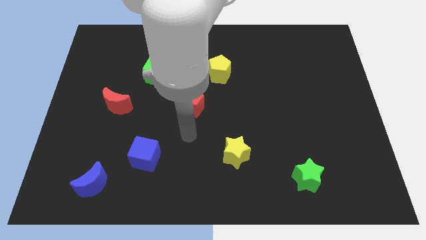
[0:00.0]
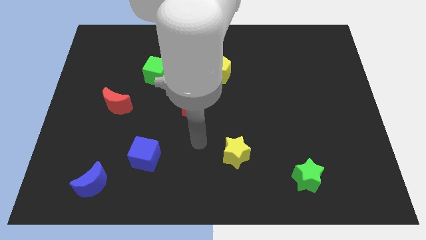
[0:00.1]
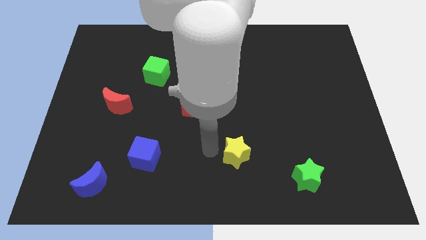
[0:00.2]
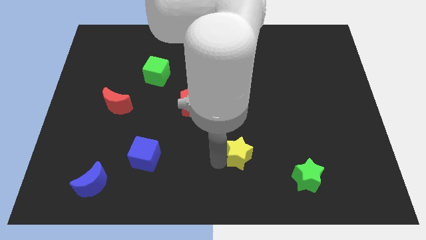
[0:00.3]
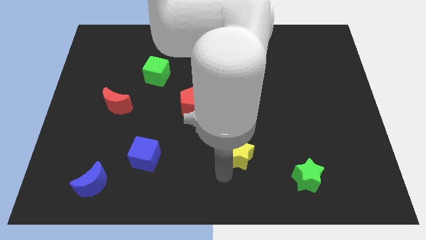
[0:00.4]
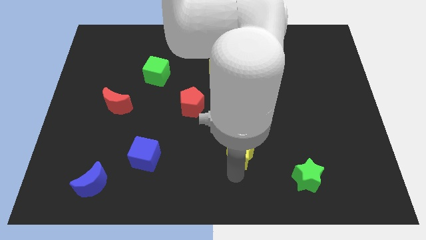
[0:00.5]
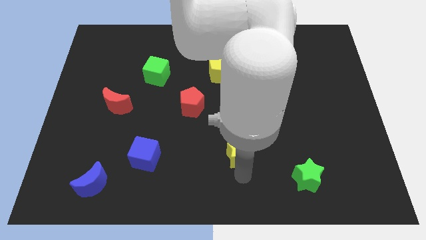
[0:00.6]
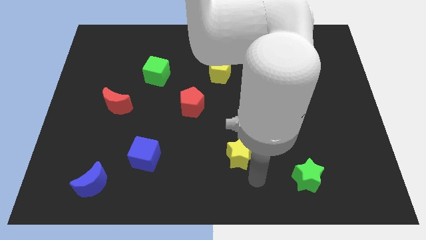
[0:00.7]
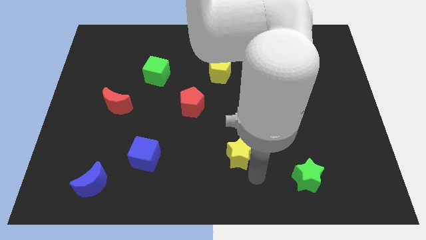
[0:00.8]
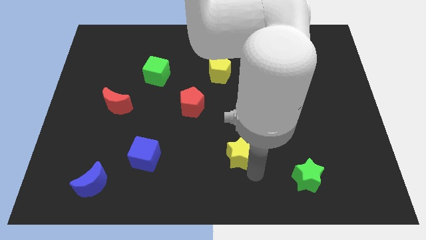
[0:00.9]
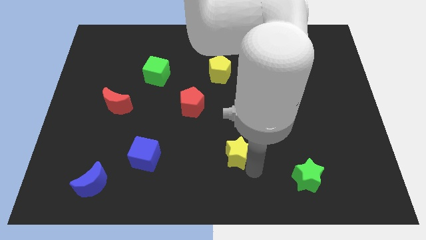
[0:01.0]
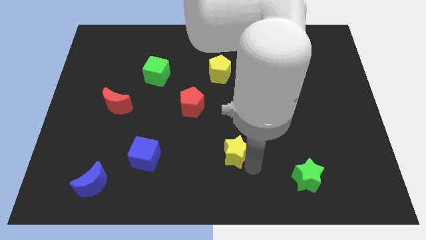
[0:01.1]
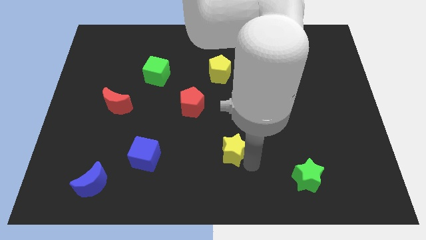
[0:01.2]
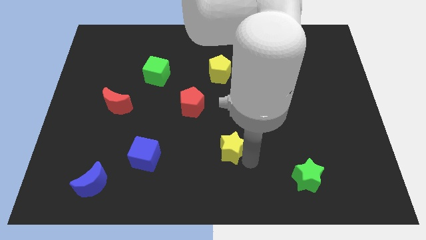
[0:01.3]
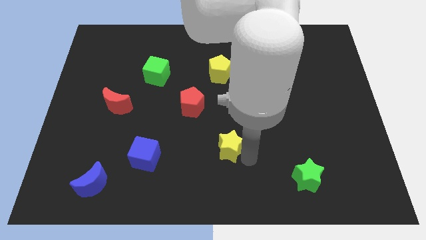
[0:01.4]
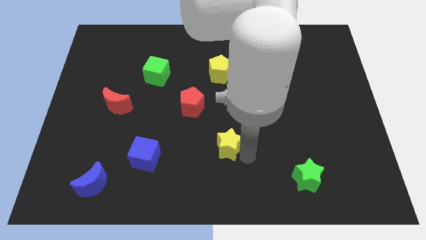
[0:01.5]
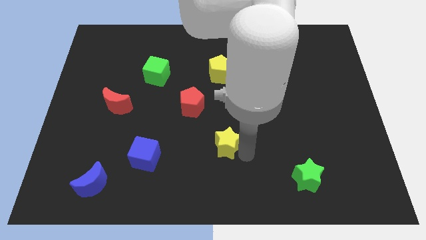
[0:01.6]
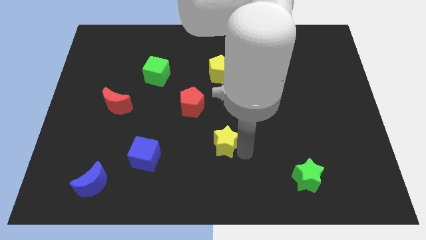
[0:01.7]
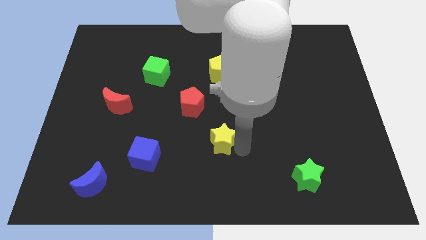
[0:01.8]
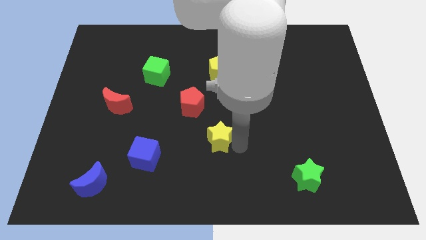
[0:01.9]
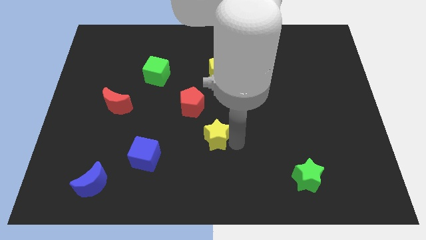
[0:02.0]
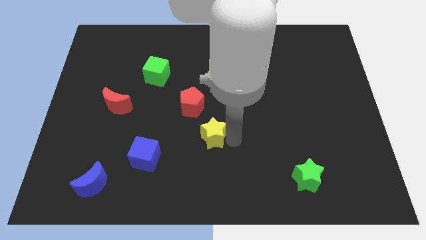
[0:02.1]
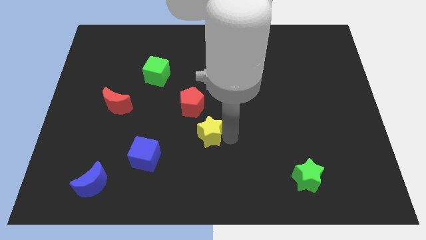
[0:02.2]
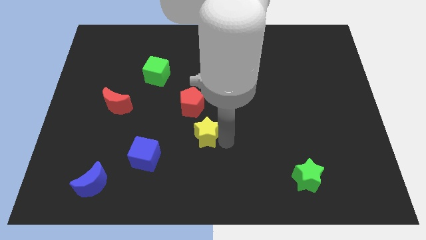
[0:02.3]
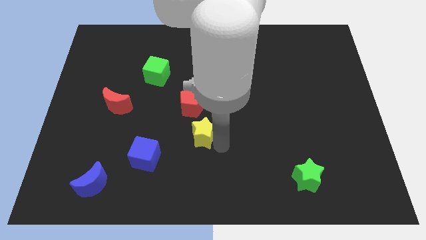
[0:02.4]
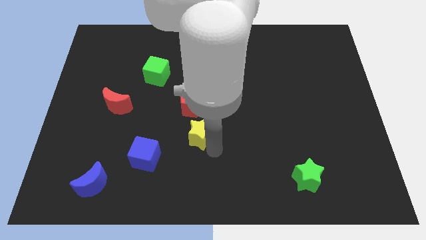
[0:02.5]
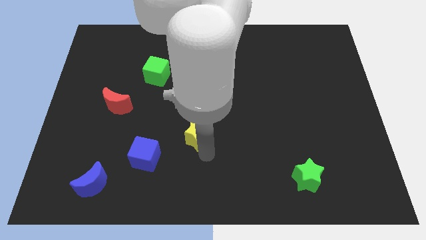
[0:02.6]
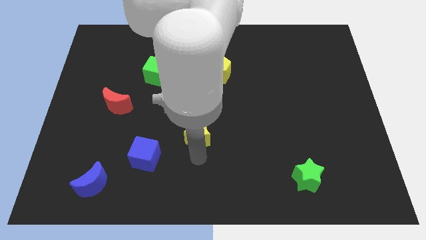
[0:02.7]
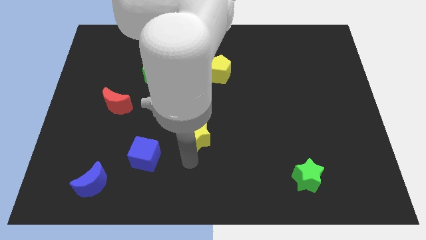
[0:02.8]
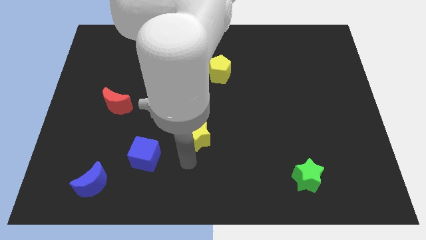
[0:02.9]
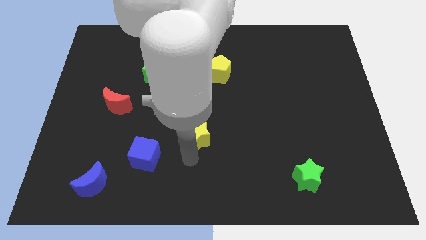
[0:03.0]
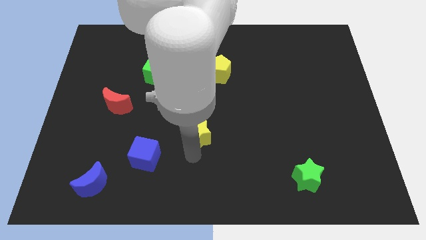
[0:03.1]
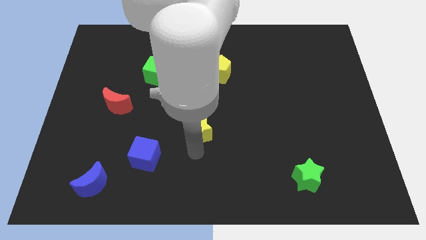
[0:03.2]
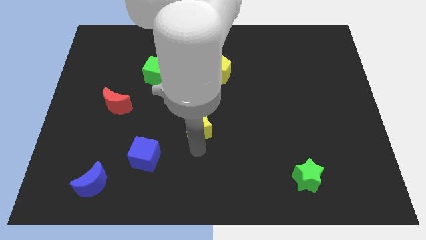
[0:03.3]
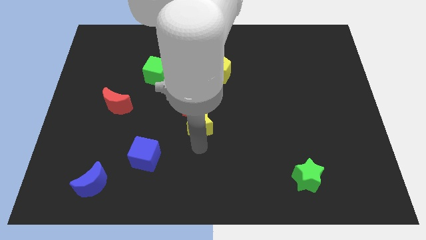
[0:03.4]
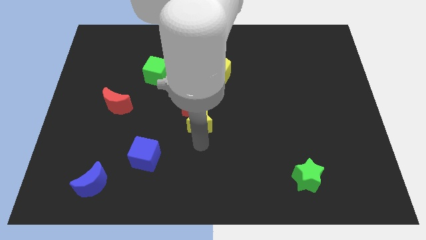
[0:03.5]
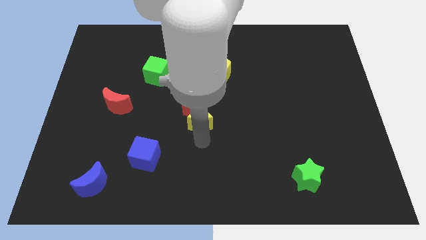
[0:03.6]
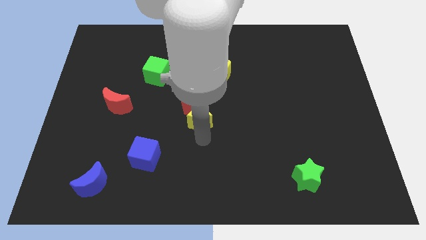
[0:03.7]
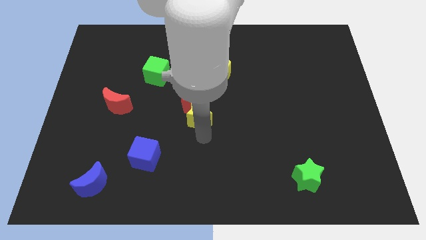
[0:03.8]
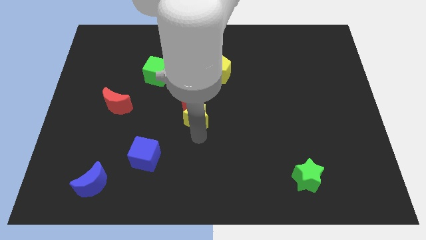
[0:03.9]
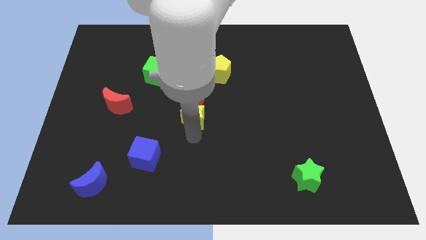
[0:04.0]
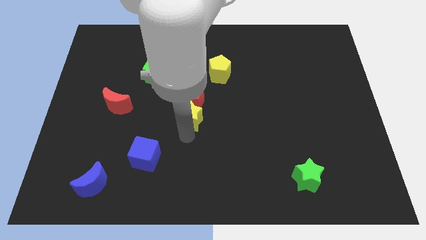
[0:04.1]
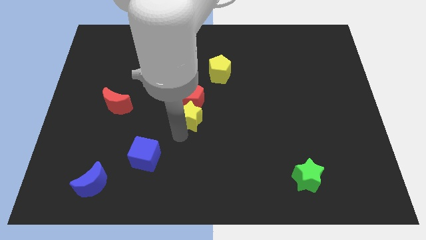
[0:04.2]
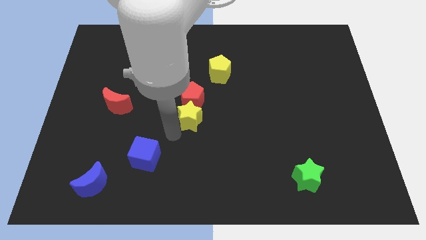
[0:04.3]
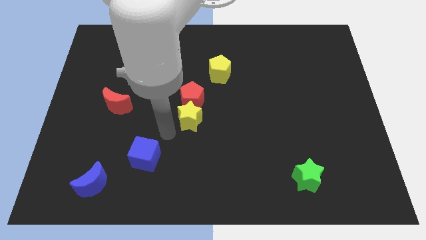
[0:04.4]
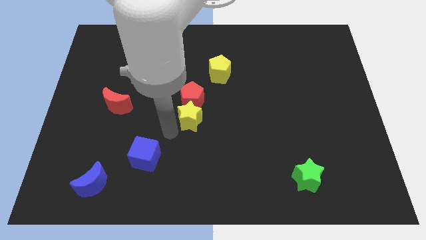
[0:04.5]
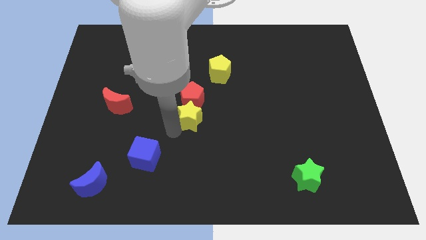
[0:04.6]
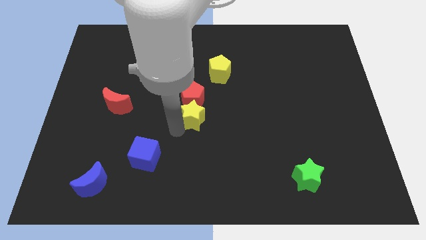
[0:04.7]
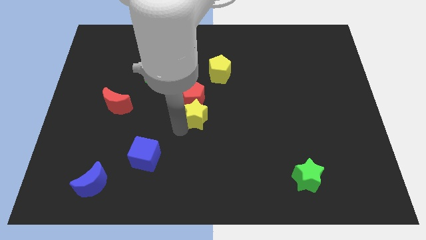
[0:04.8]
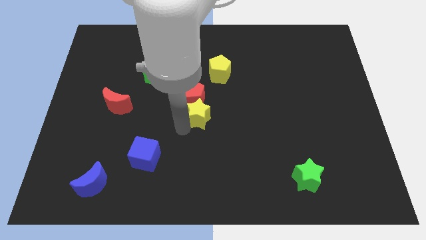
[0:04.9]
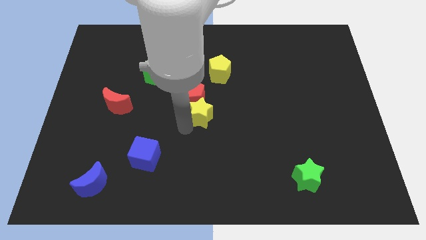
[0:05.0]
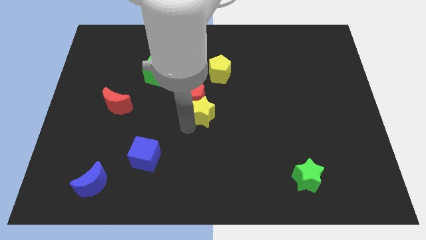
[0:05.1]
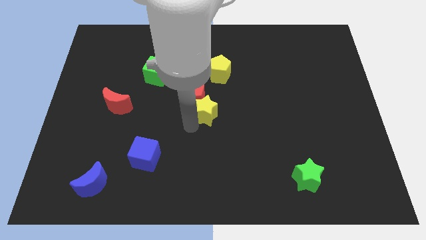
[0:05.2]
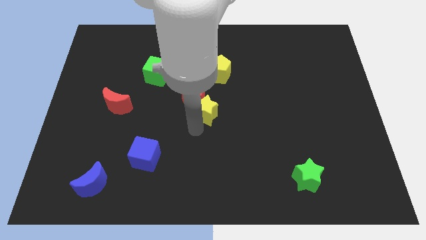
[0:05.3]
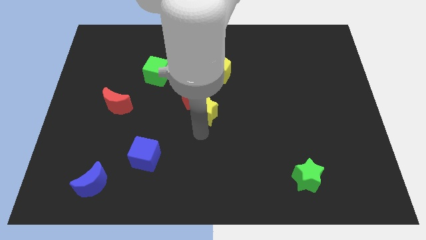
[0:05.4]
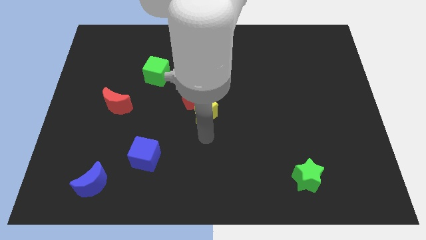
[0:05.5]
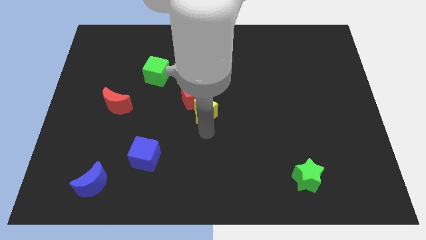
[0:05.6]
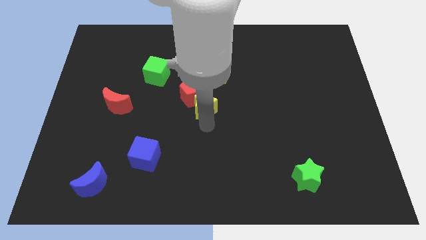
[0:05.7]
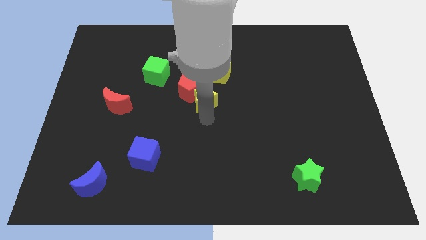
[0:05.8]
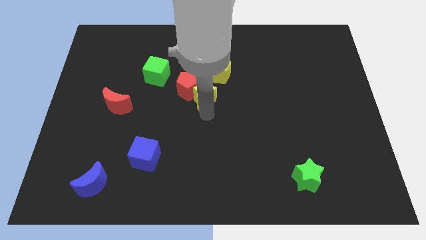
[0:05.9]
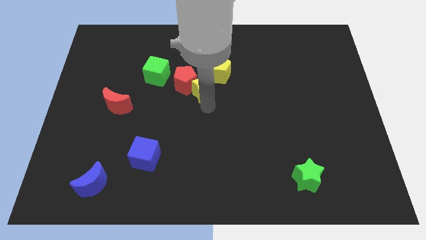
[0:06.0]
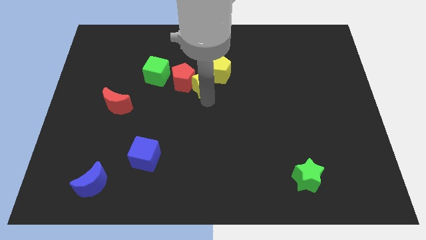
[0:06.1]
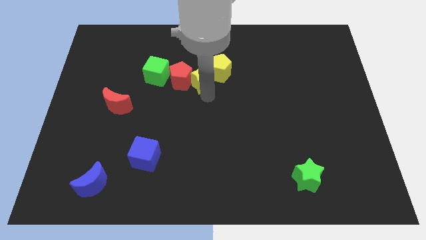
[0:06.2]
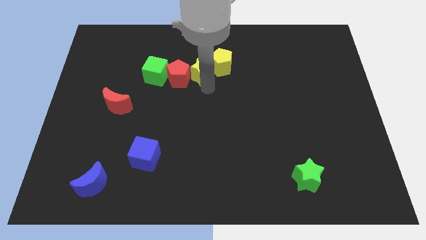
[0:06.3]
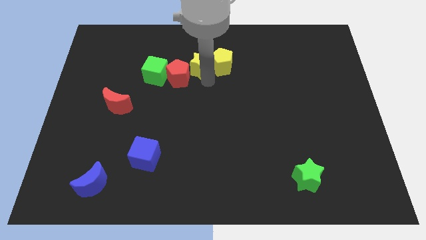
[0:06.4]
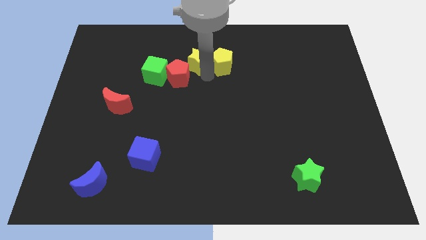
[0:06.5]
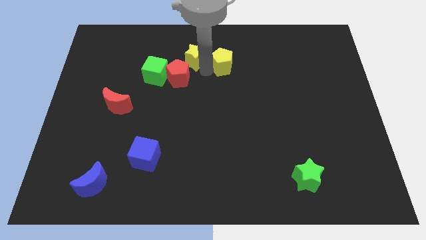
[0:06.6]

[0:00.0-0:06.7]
move the yellow star to the top right of the green cube
